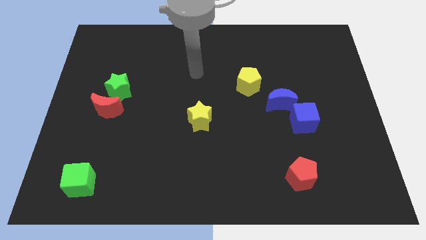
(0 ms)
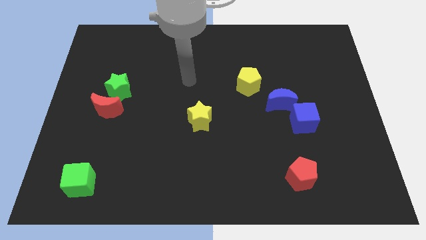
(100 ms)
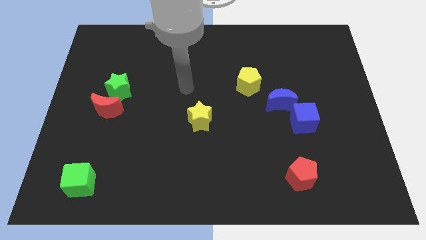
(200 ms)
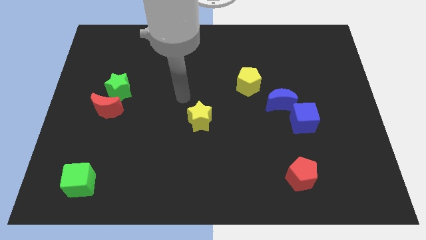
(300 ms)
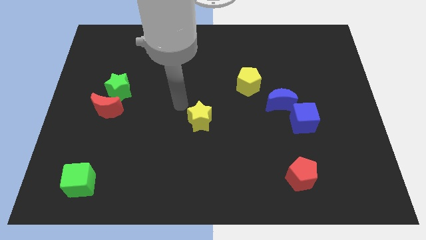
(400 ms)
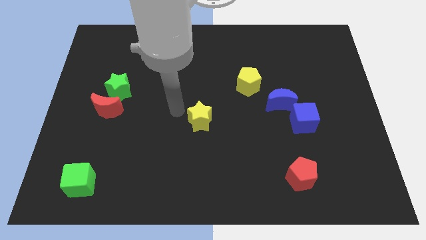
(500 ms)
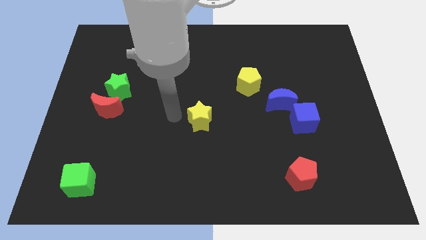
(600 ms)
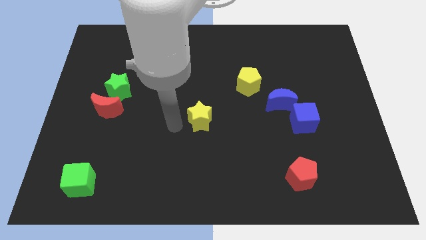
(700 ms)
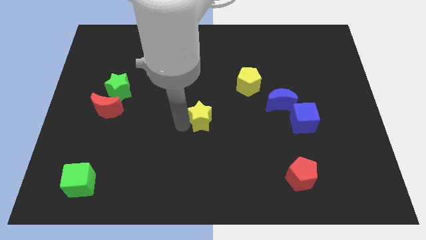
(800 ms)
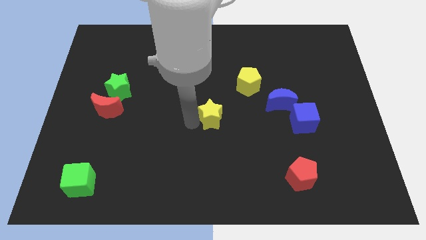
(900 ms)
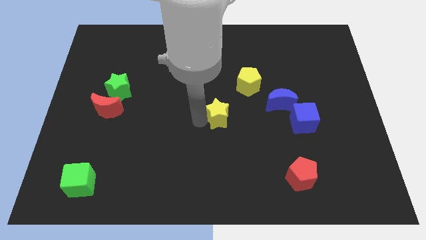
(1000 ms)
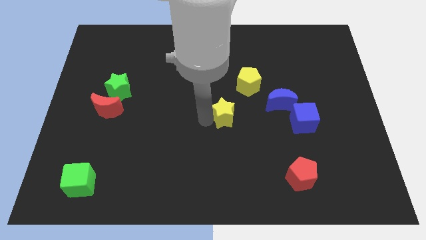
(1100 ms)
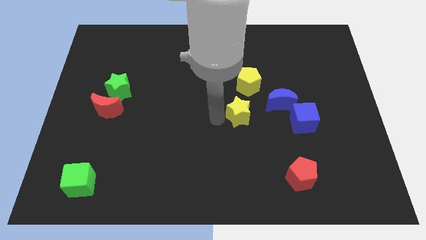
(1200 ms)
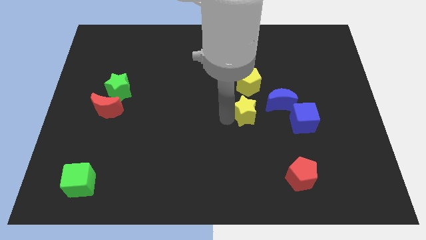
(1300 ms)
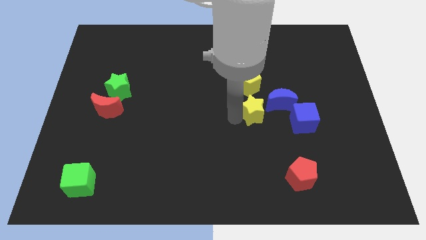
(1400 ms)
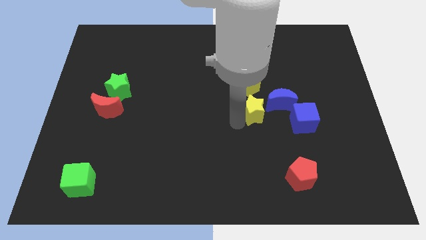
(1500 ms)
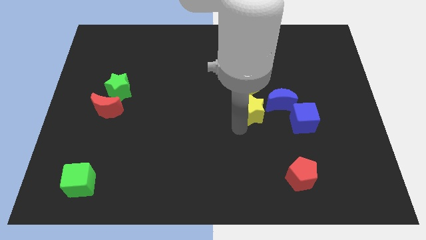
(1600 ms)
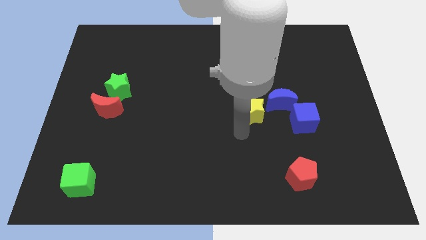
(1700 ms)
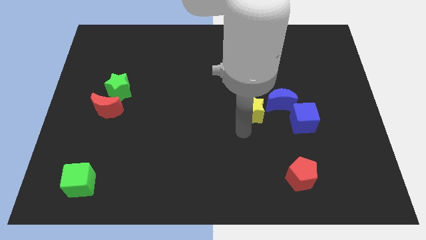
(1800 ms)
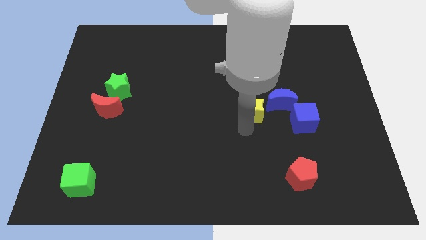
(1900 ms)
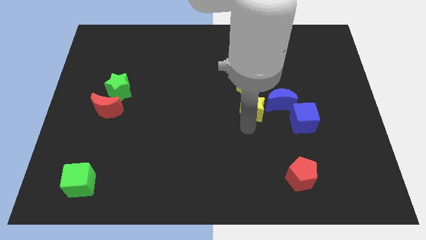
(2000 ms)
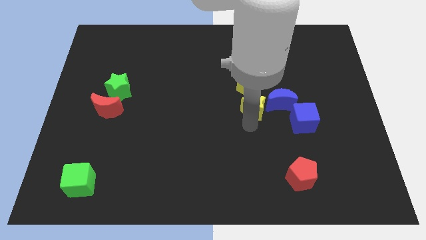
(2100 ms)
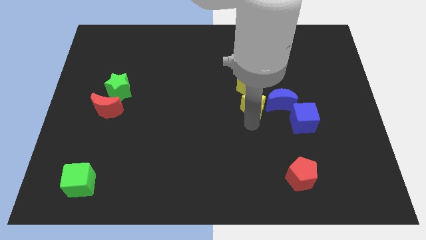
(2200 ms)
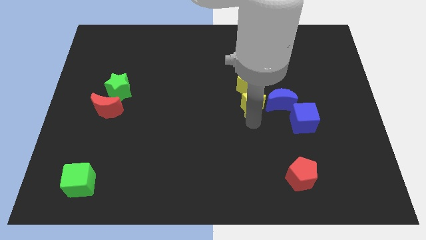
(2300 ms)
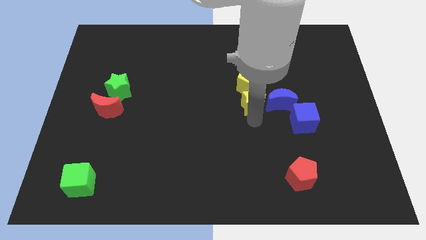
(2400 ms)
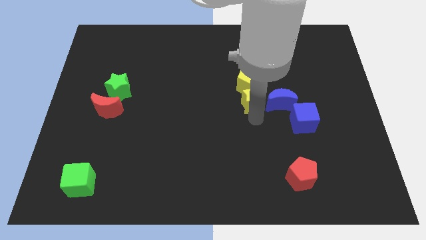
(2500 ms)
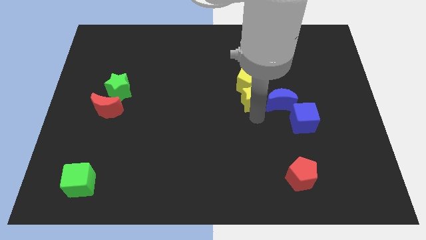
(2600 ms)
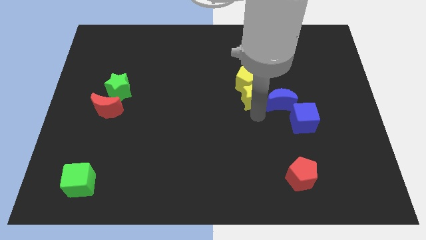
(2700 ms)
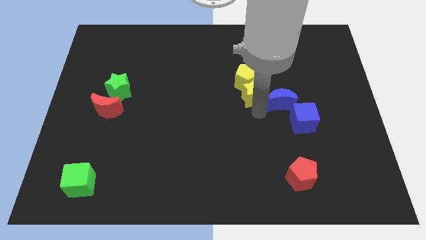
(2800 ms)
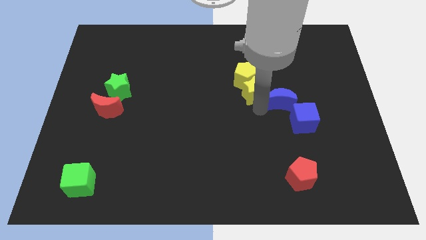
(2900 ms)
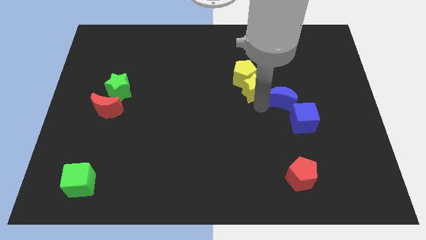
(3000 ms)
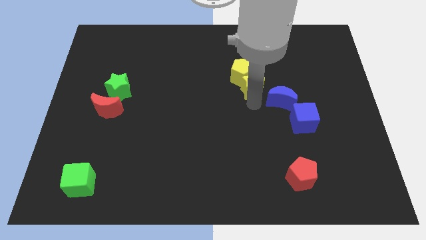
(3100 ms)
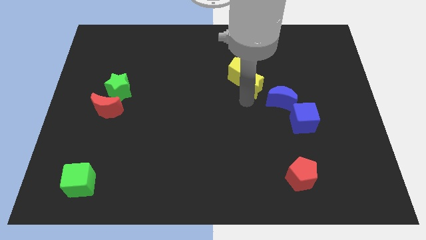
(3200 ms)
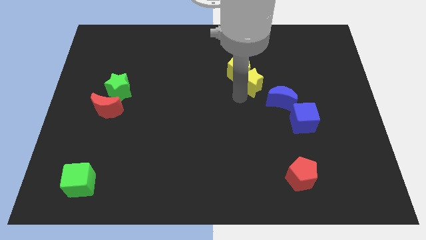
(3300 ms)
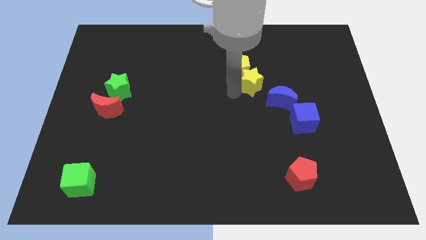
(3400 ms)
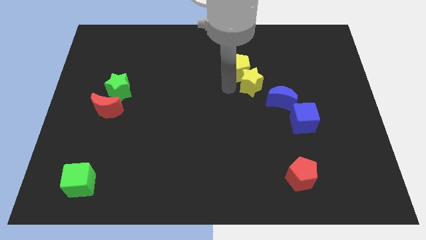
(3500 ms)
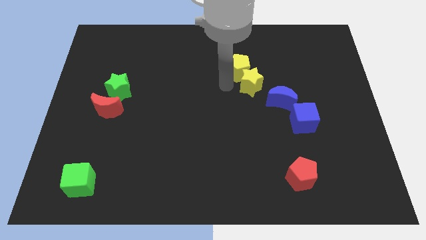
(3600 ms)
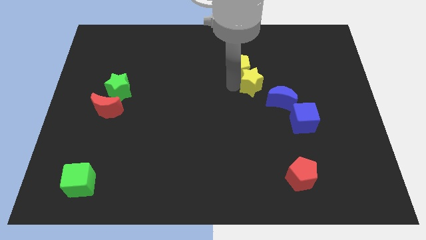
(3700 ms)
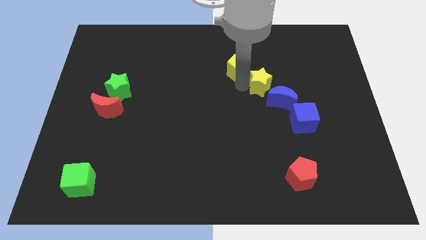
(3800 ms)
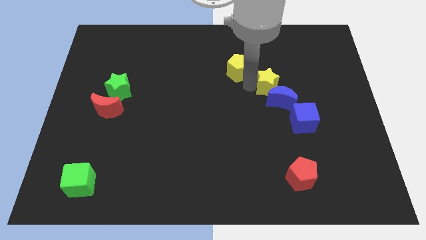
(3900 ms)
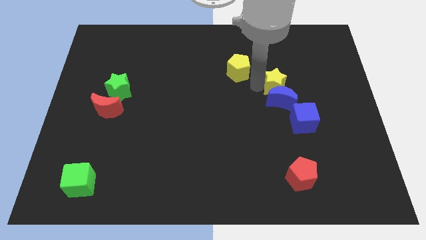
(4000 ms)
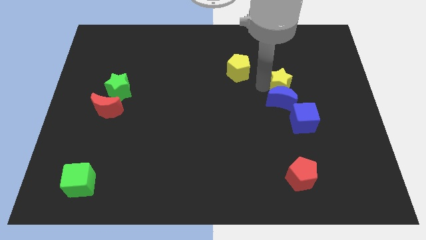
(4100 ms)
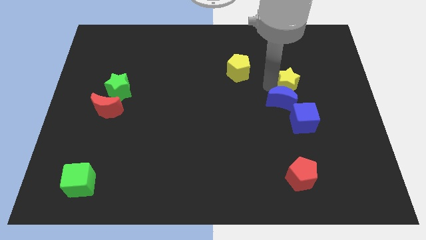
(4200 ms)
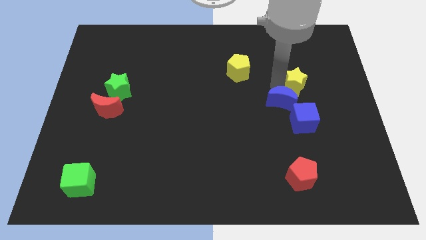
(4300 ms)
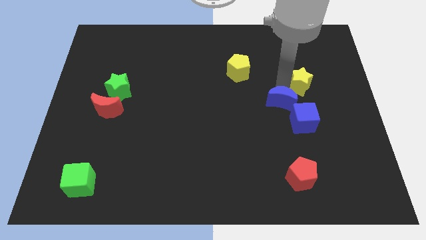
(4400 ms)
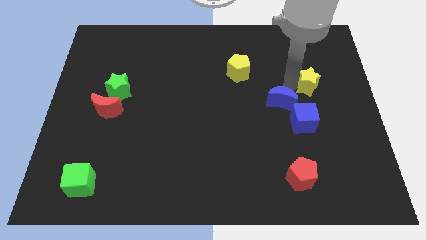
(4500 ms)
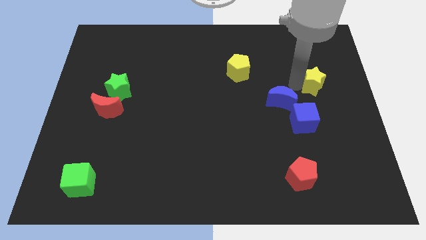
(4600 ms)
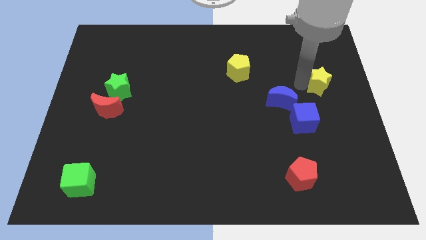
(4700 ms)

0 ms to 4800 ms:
move the yellow star to the right side

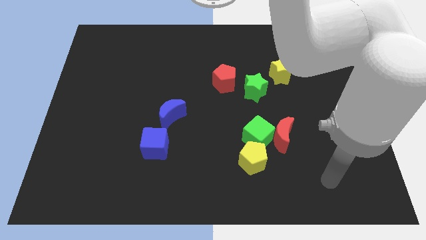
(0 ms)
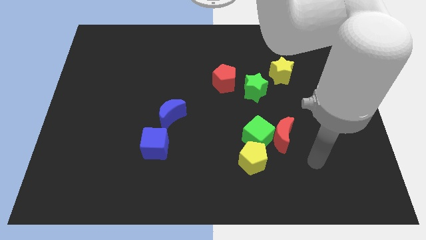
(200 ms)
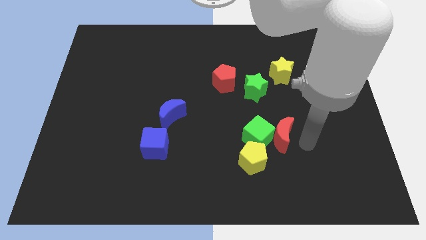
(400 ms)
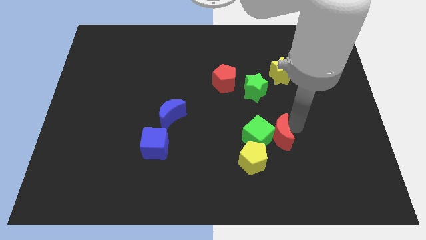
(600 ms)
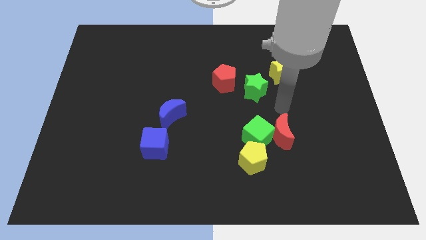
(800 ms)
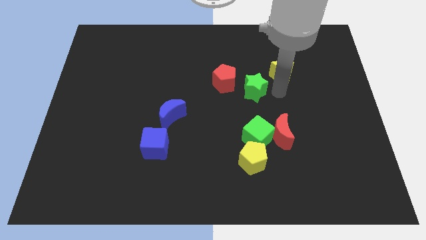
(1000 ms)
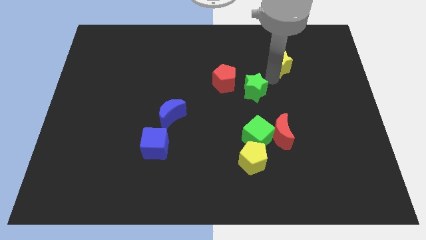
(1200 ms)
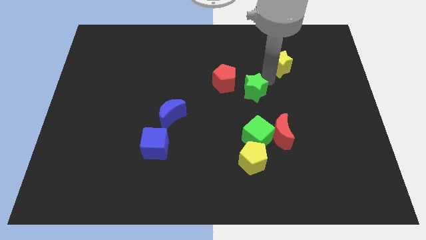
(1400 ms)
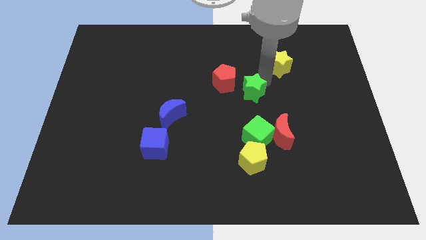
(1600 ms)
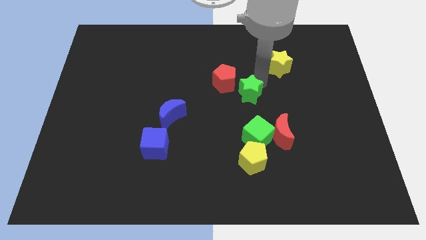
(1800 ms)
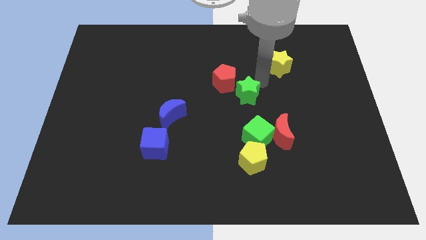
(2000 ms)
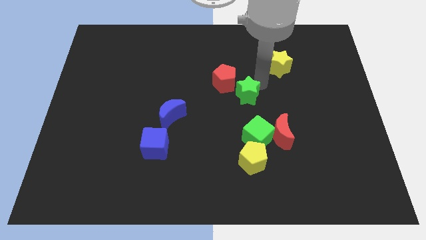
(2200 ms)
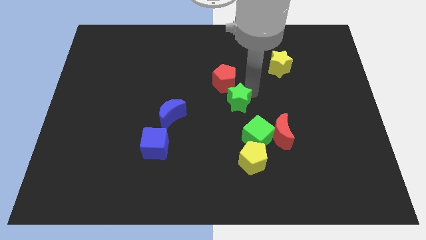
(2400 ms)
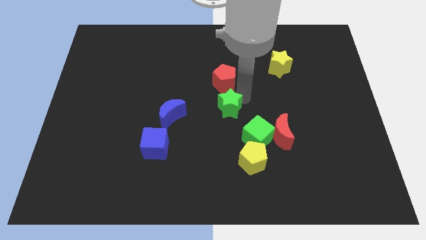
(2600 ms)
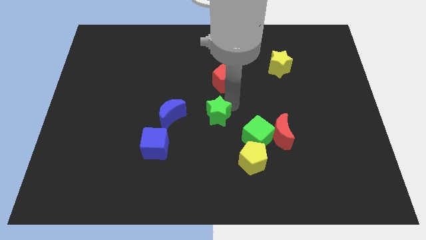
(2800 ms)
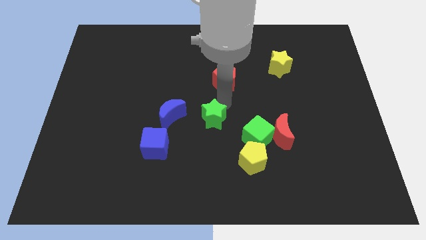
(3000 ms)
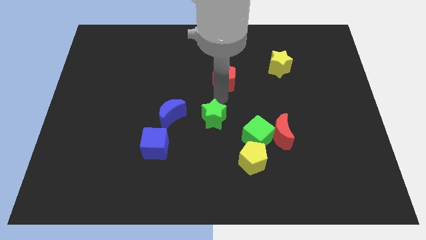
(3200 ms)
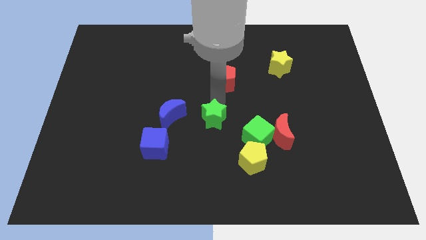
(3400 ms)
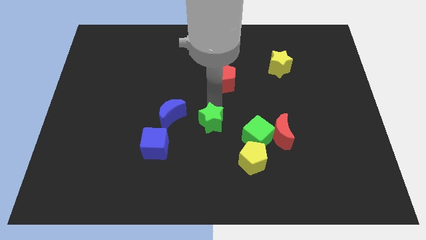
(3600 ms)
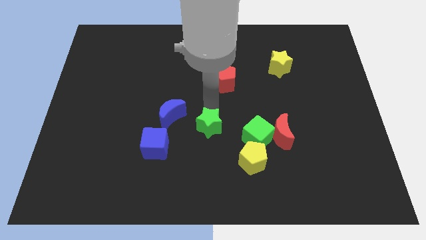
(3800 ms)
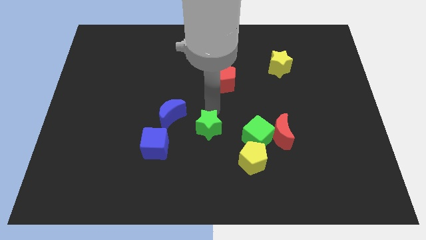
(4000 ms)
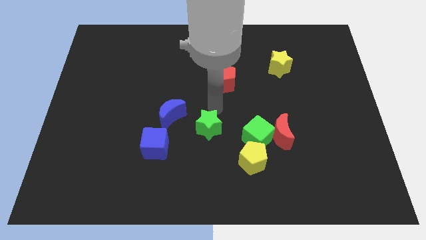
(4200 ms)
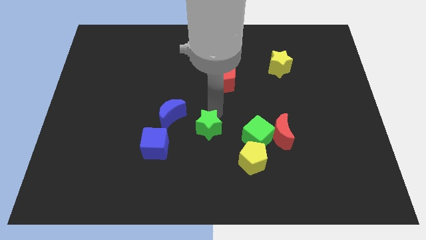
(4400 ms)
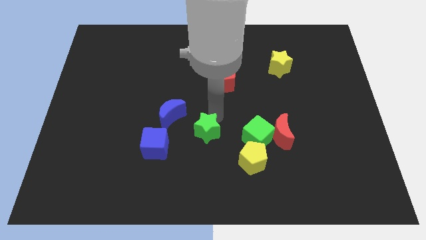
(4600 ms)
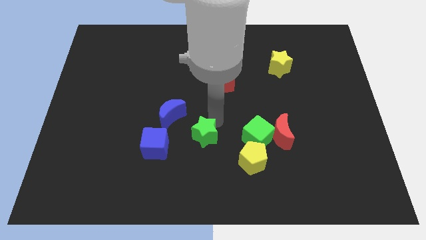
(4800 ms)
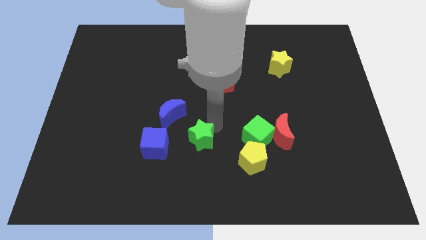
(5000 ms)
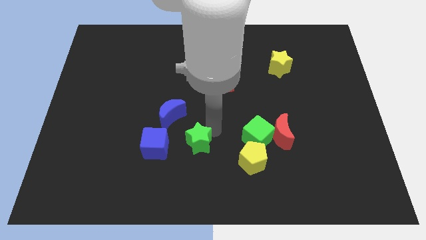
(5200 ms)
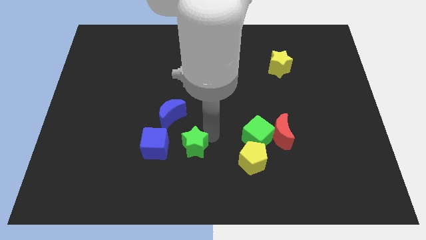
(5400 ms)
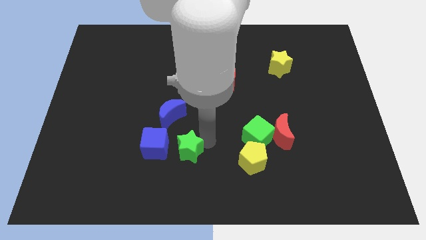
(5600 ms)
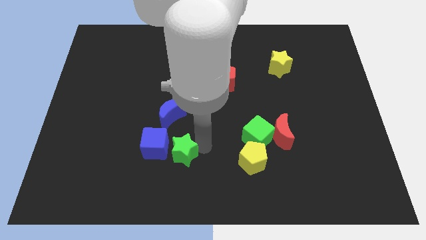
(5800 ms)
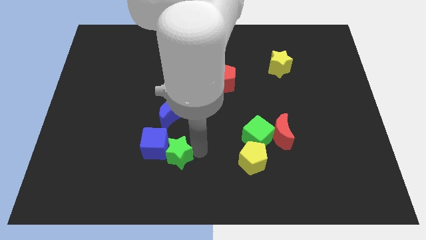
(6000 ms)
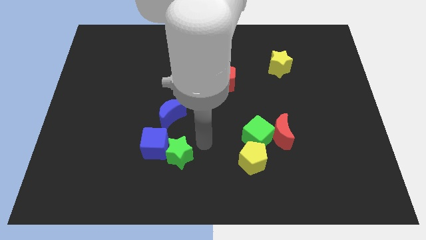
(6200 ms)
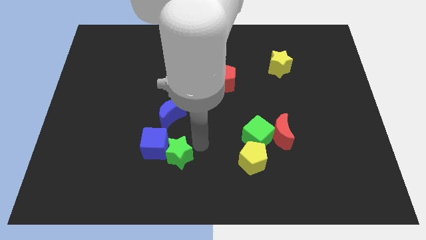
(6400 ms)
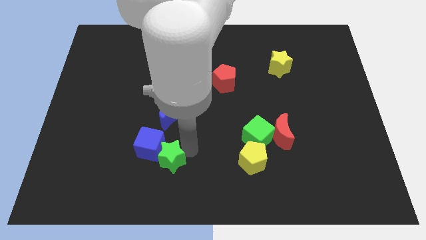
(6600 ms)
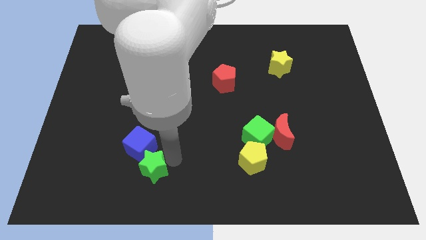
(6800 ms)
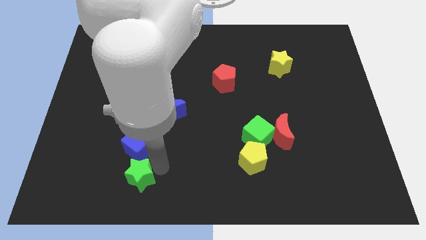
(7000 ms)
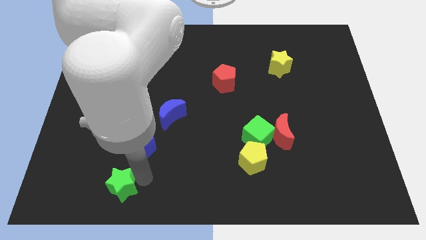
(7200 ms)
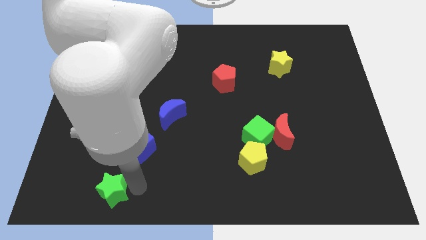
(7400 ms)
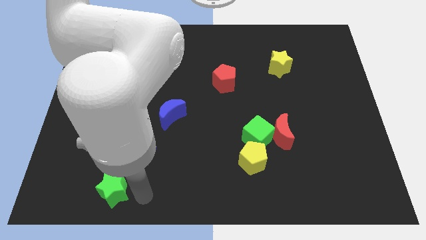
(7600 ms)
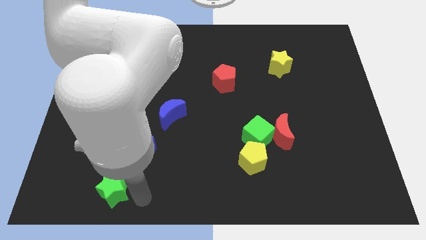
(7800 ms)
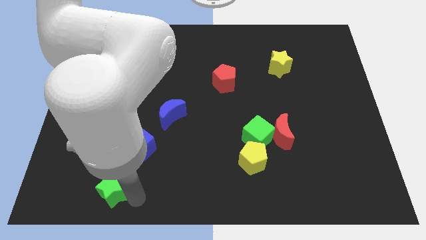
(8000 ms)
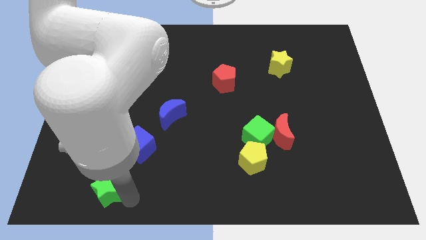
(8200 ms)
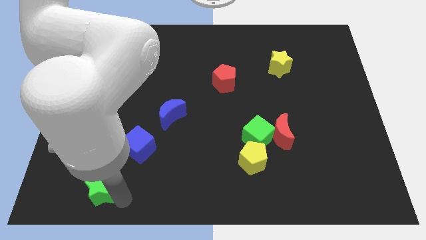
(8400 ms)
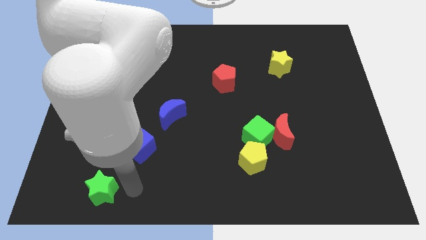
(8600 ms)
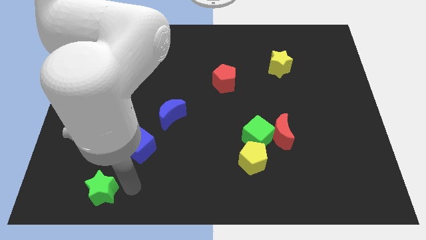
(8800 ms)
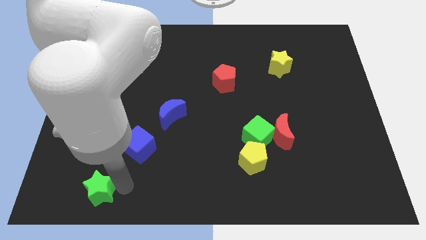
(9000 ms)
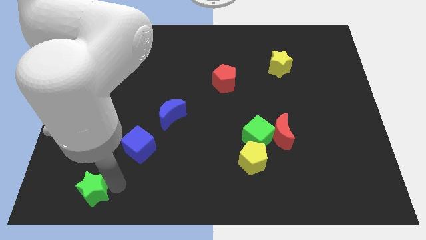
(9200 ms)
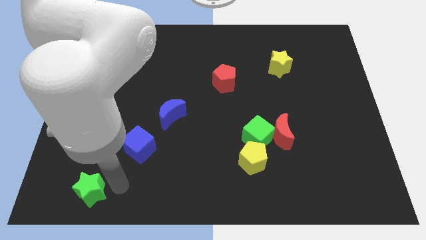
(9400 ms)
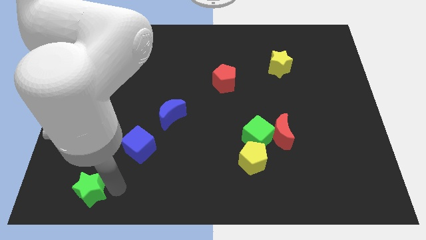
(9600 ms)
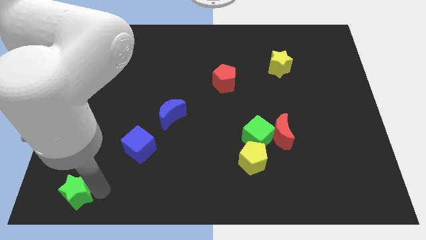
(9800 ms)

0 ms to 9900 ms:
move the green star to the lower left corner
